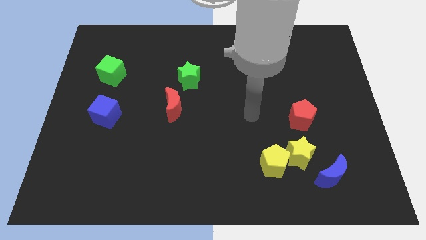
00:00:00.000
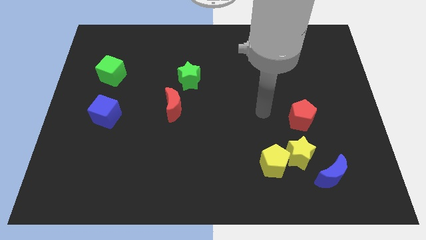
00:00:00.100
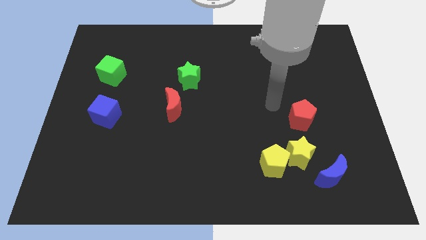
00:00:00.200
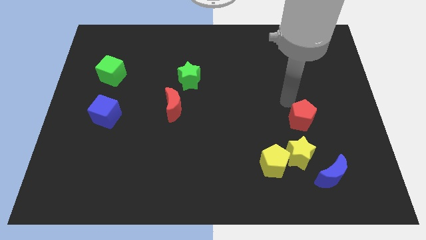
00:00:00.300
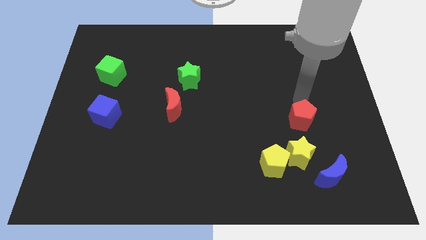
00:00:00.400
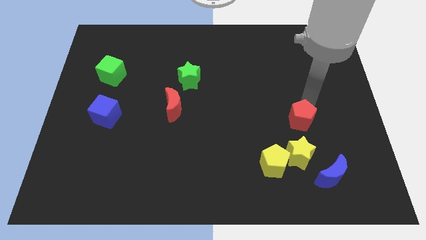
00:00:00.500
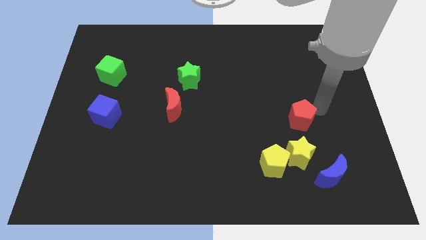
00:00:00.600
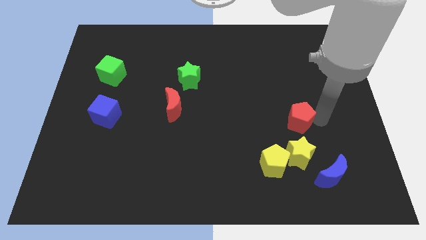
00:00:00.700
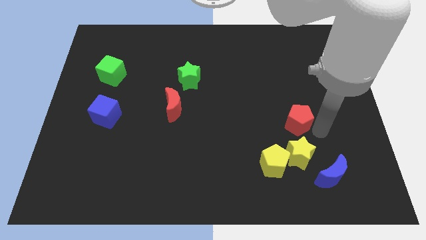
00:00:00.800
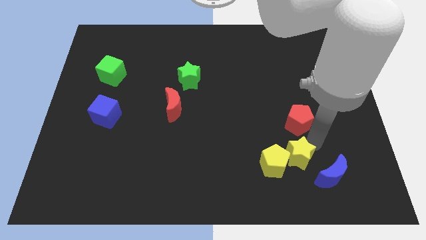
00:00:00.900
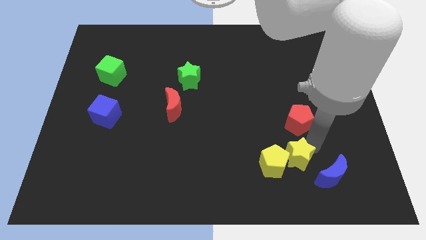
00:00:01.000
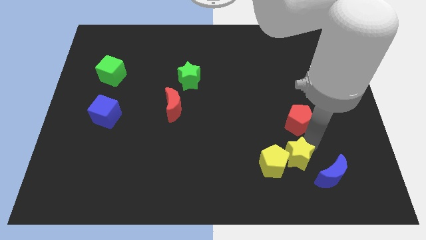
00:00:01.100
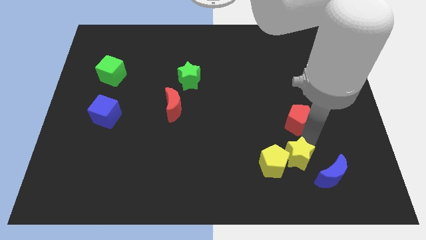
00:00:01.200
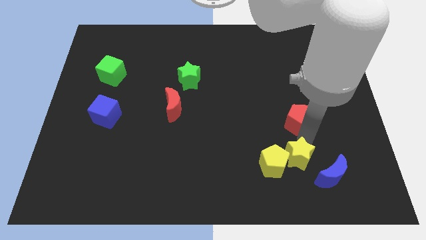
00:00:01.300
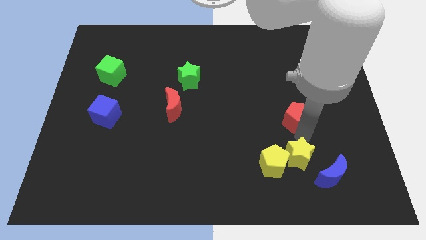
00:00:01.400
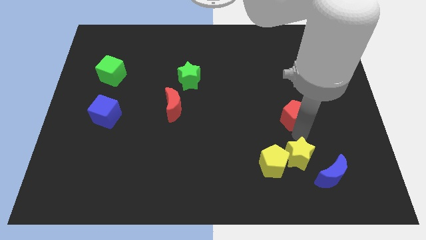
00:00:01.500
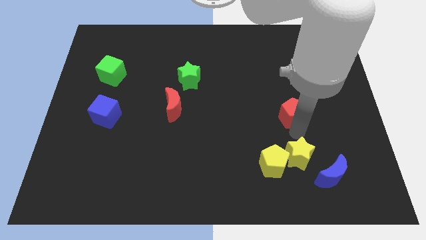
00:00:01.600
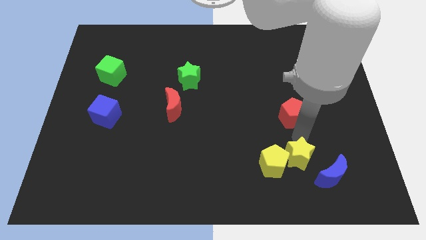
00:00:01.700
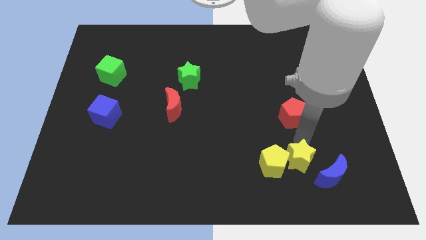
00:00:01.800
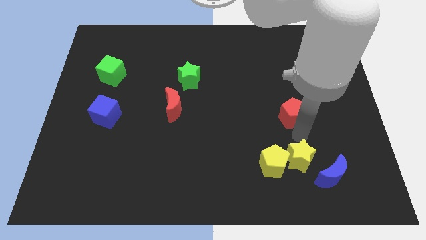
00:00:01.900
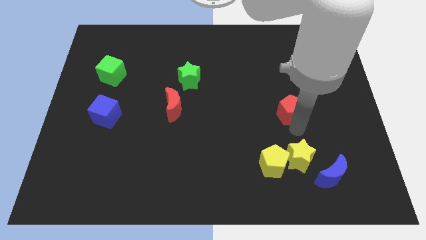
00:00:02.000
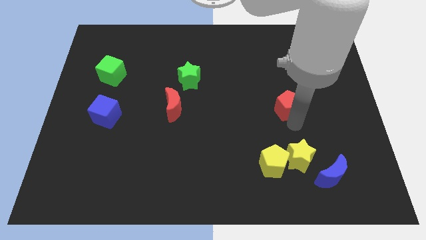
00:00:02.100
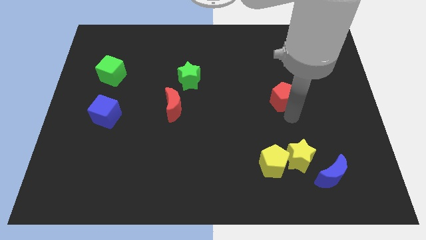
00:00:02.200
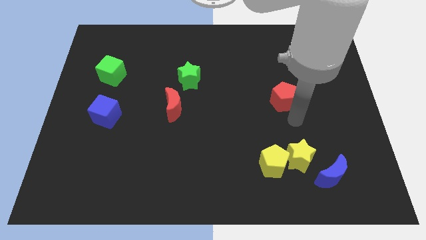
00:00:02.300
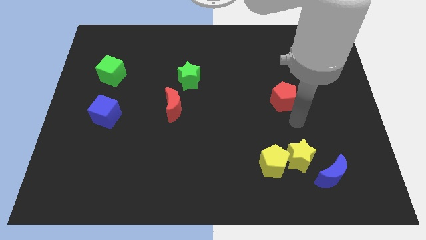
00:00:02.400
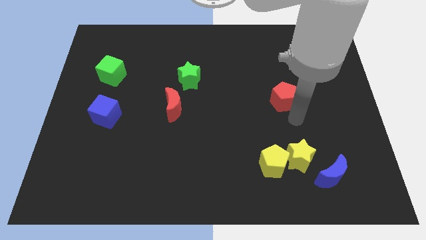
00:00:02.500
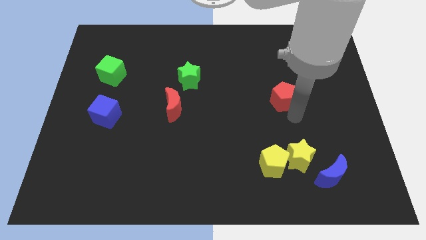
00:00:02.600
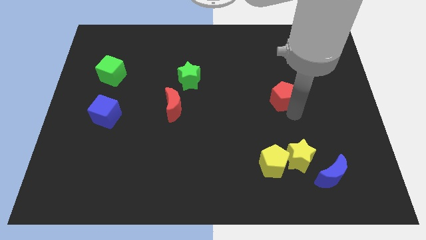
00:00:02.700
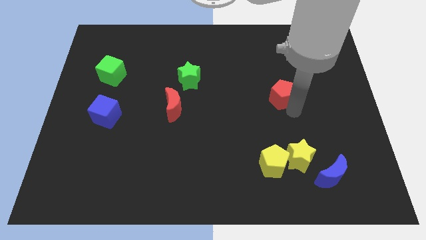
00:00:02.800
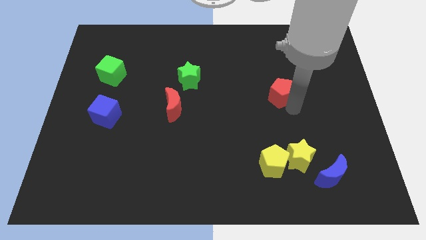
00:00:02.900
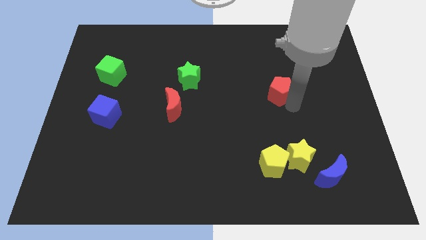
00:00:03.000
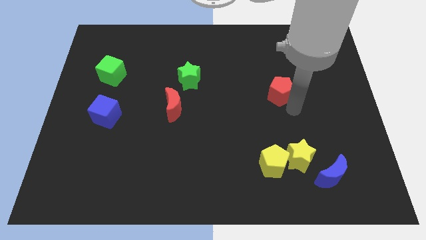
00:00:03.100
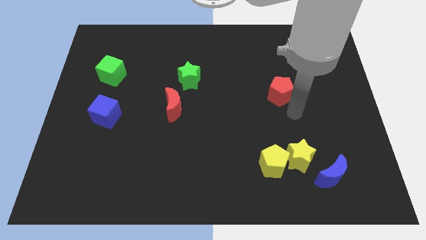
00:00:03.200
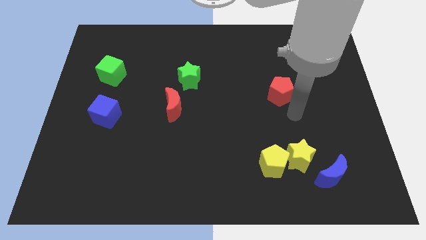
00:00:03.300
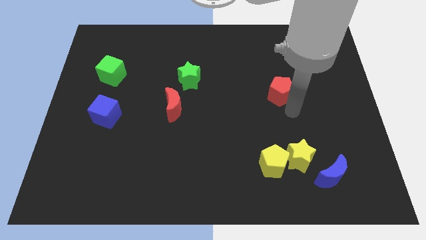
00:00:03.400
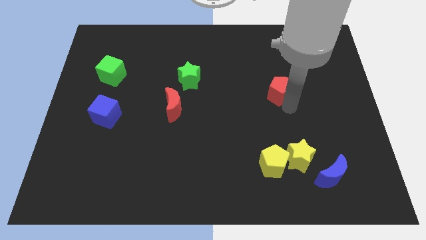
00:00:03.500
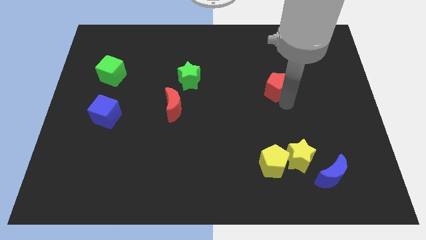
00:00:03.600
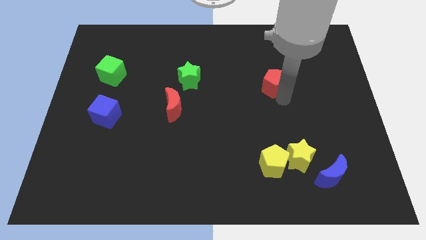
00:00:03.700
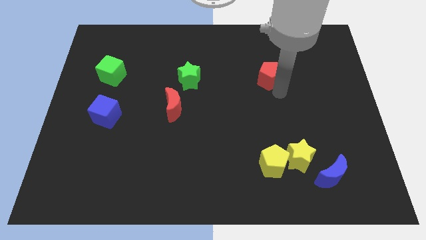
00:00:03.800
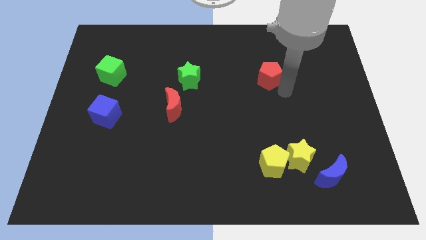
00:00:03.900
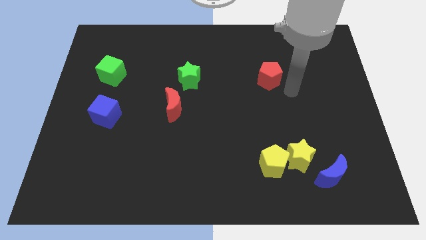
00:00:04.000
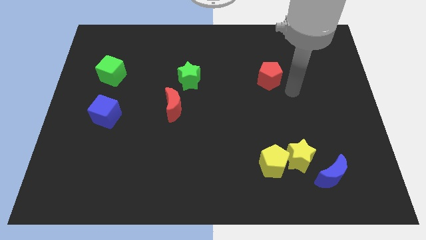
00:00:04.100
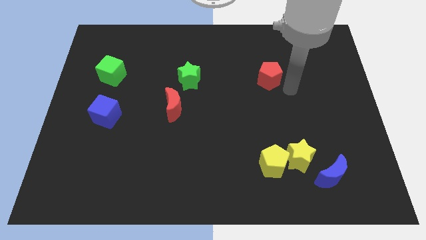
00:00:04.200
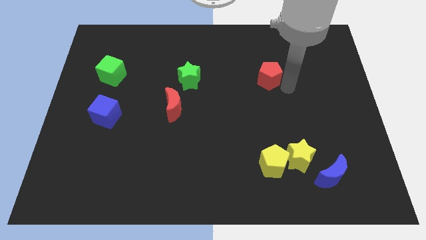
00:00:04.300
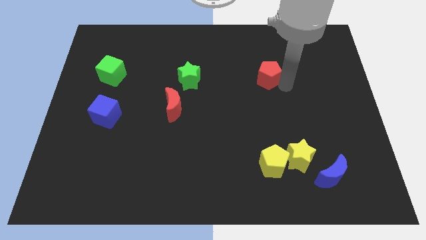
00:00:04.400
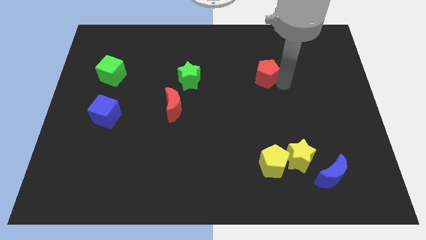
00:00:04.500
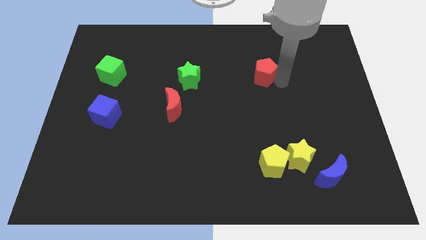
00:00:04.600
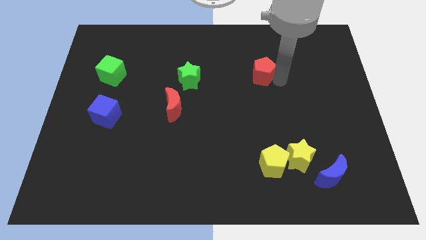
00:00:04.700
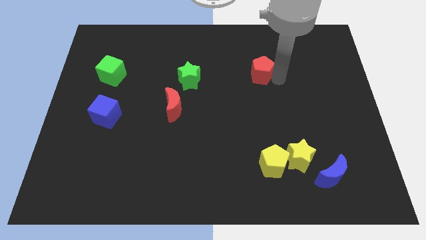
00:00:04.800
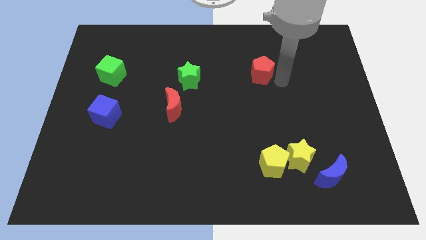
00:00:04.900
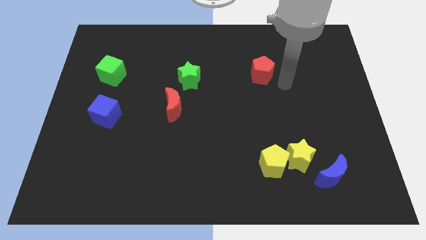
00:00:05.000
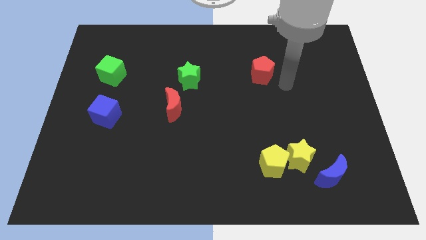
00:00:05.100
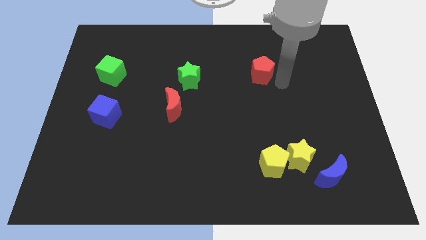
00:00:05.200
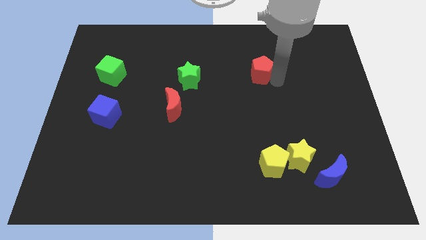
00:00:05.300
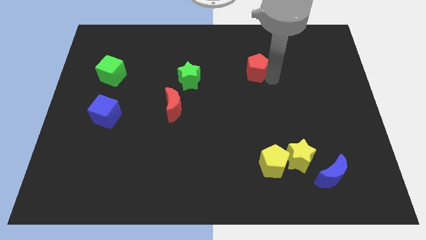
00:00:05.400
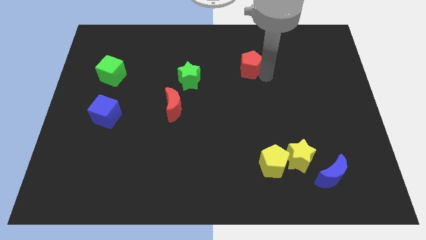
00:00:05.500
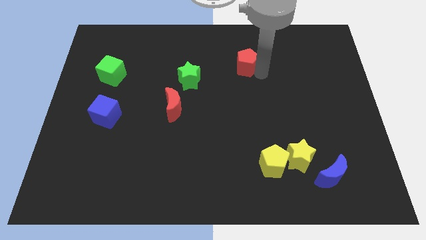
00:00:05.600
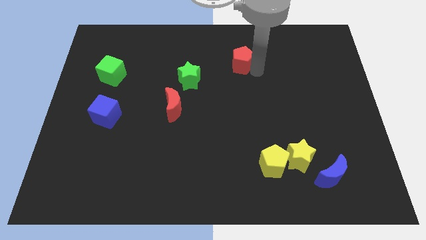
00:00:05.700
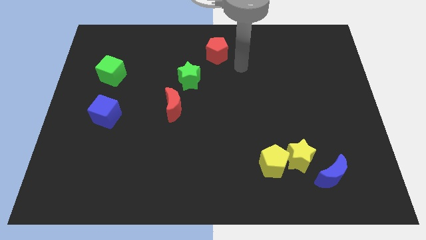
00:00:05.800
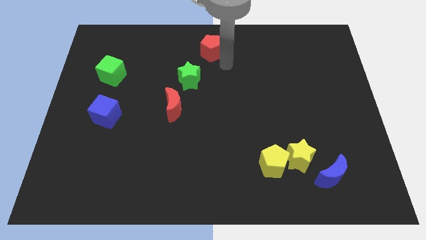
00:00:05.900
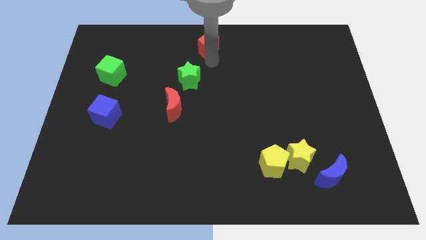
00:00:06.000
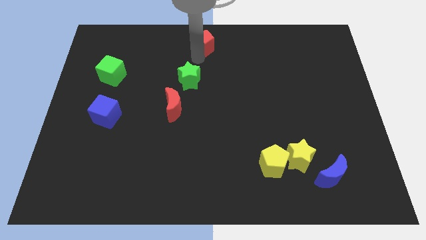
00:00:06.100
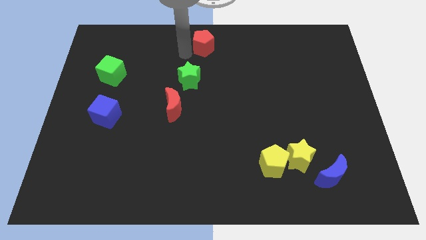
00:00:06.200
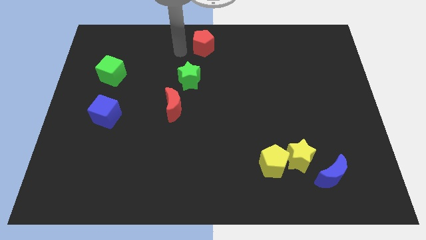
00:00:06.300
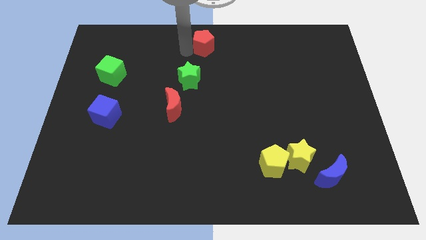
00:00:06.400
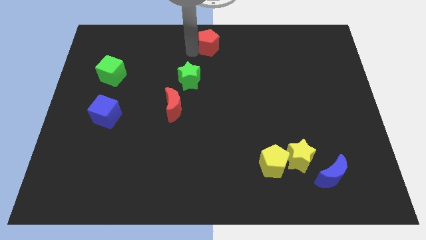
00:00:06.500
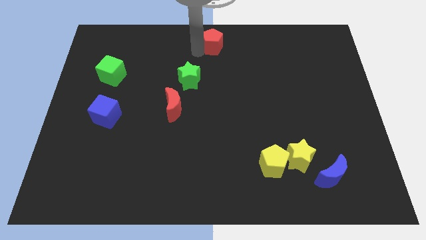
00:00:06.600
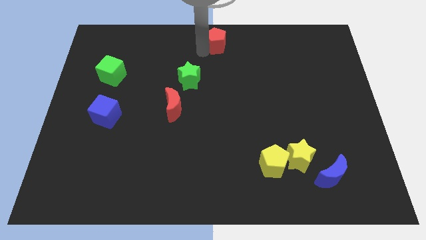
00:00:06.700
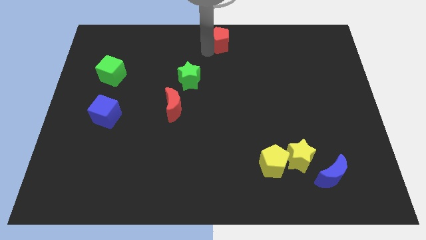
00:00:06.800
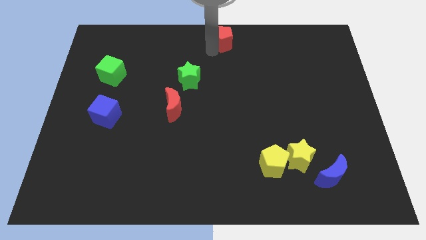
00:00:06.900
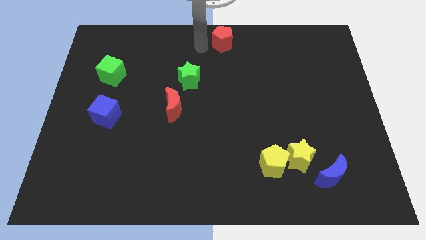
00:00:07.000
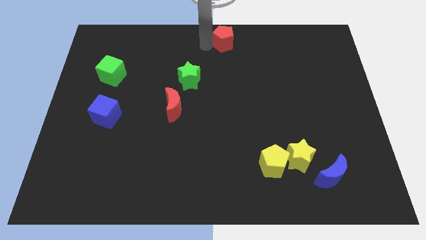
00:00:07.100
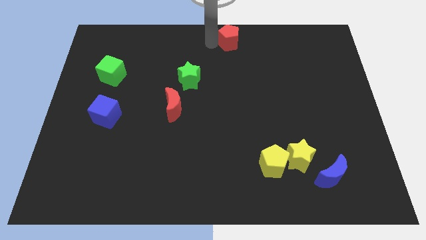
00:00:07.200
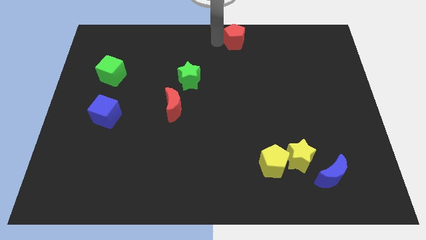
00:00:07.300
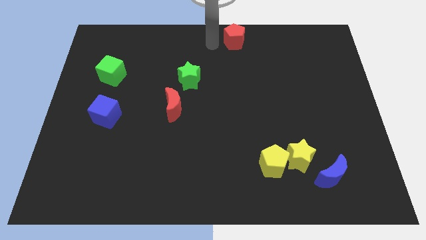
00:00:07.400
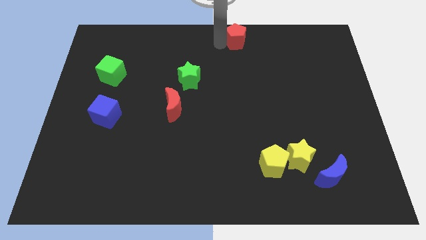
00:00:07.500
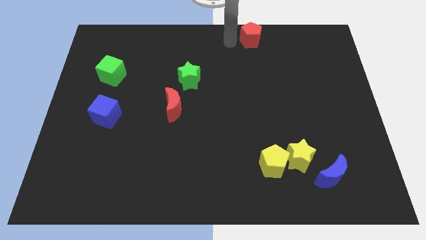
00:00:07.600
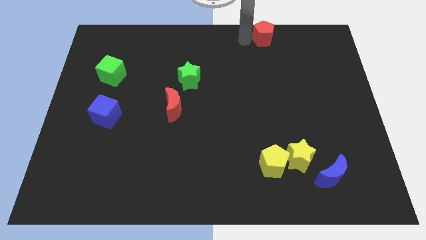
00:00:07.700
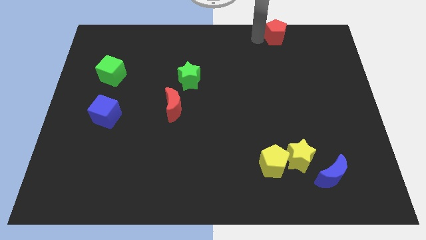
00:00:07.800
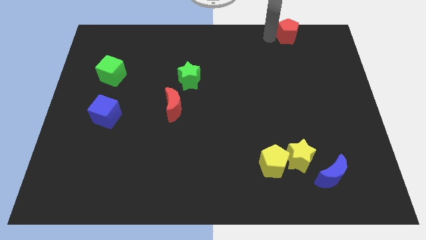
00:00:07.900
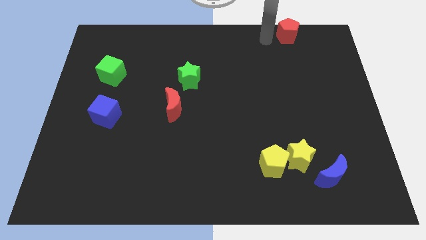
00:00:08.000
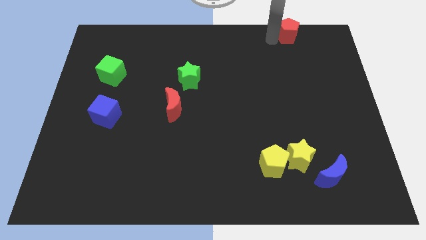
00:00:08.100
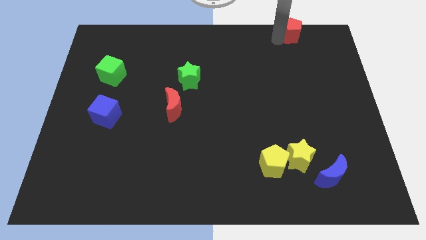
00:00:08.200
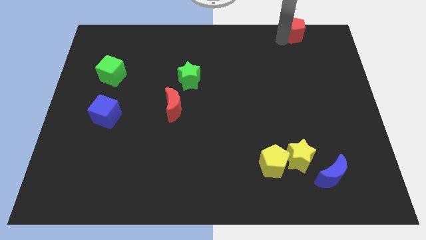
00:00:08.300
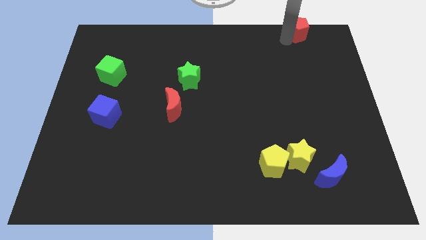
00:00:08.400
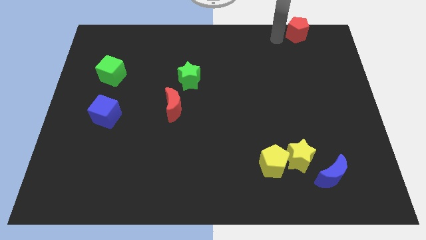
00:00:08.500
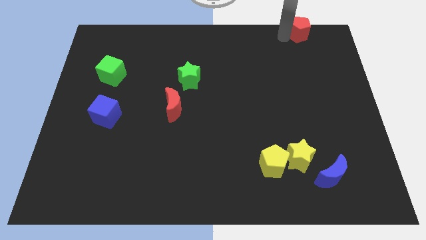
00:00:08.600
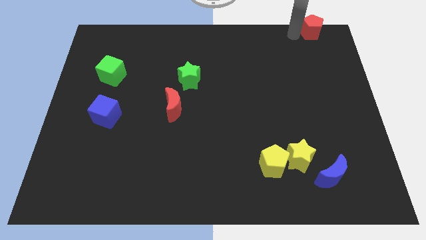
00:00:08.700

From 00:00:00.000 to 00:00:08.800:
slide the red pentagon to the top right of the board
